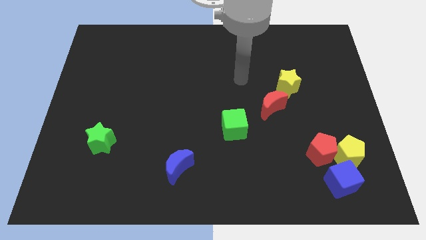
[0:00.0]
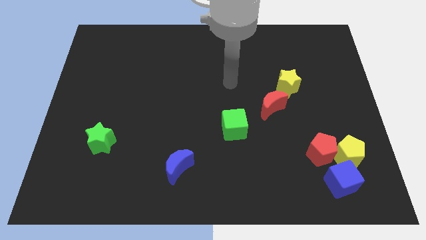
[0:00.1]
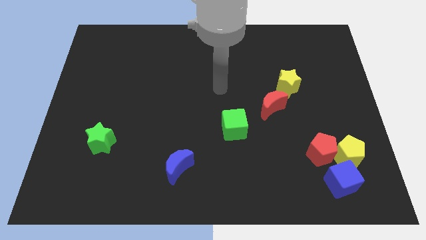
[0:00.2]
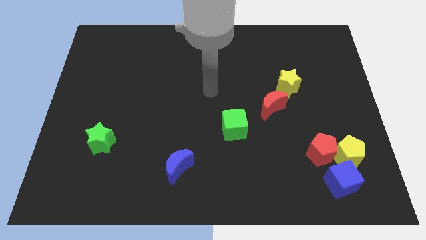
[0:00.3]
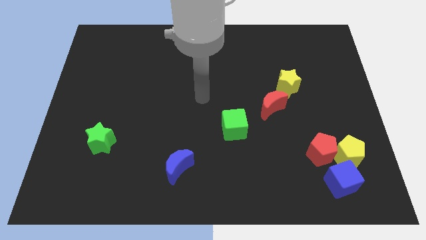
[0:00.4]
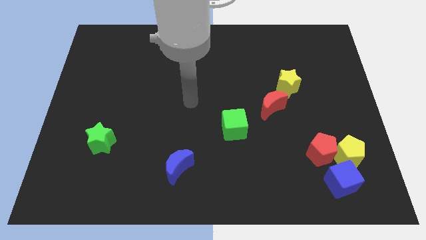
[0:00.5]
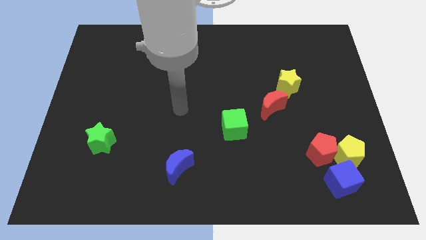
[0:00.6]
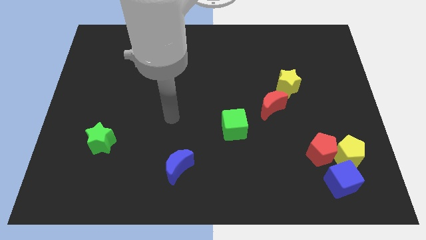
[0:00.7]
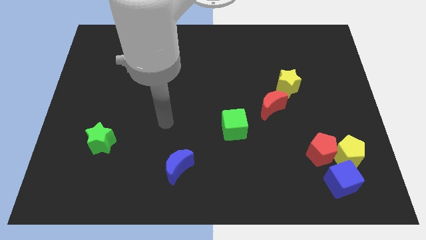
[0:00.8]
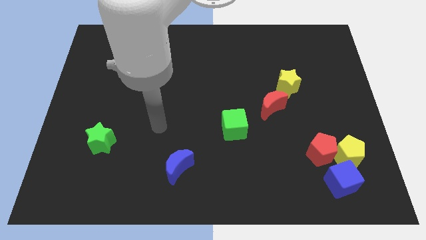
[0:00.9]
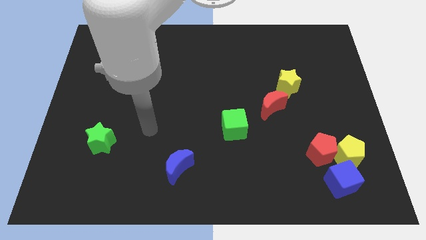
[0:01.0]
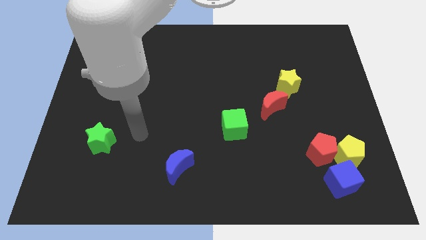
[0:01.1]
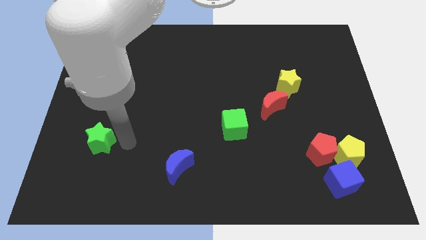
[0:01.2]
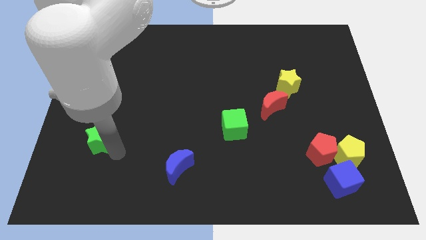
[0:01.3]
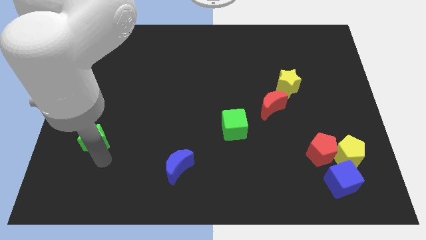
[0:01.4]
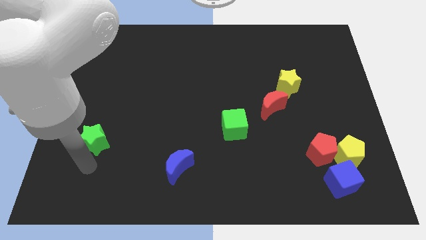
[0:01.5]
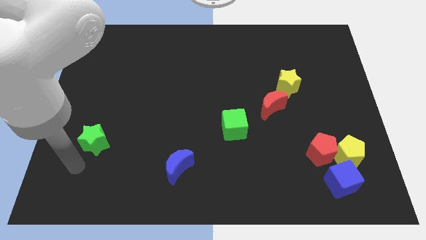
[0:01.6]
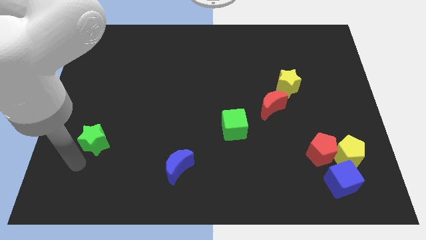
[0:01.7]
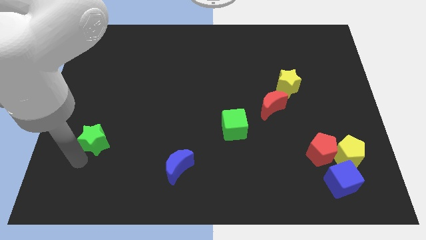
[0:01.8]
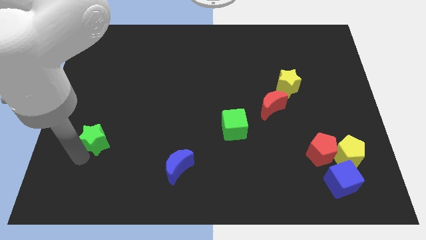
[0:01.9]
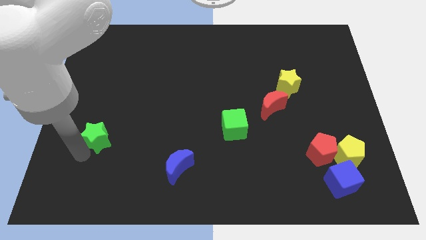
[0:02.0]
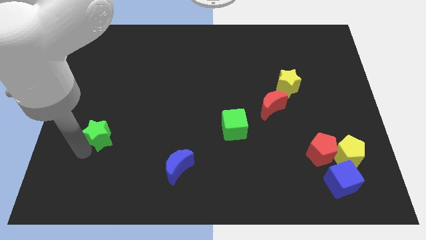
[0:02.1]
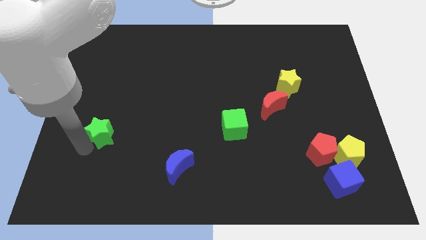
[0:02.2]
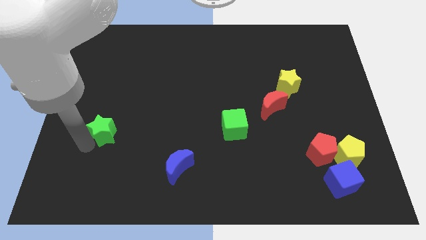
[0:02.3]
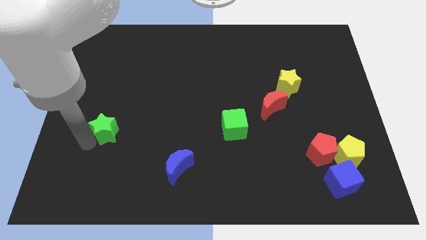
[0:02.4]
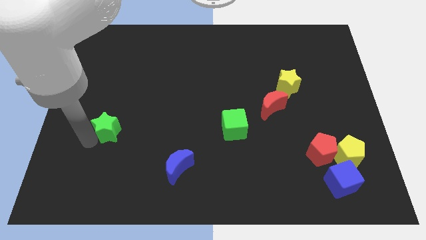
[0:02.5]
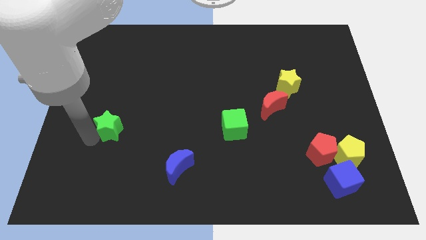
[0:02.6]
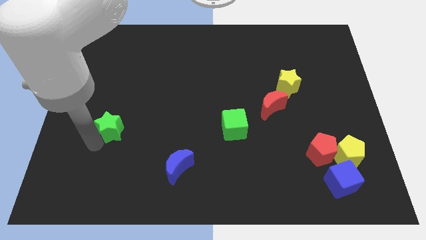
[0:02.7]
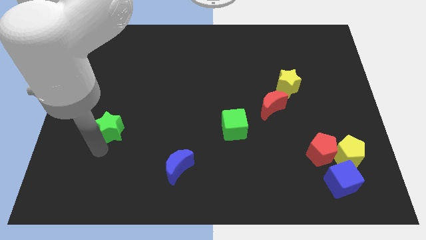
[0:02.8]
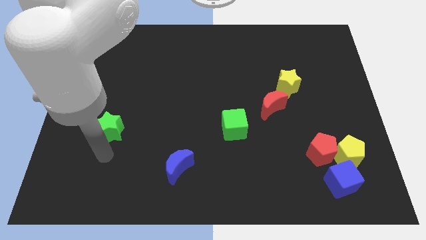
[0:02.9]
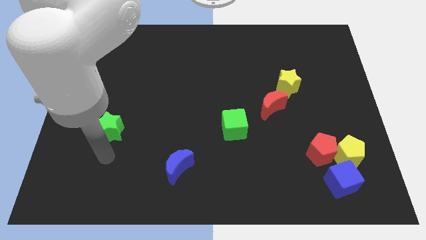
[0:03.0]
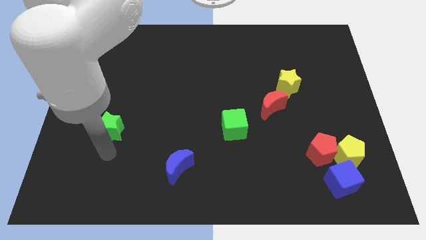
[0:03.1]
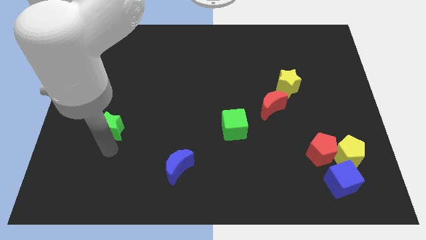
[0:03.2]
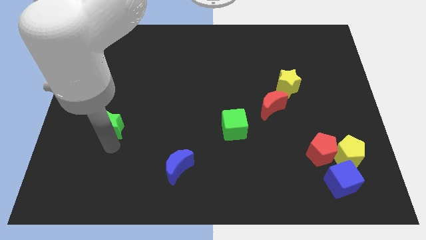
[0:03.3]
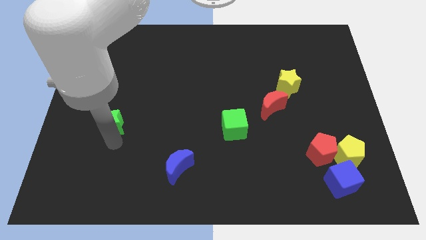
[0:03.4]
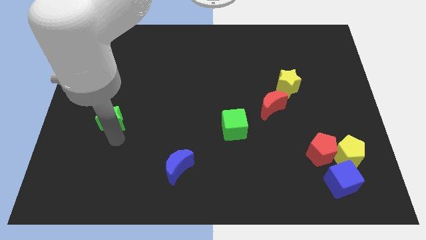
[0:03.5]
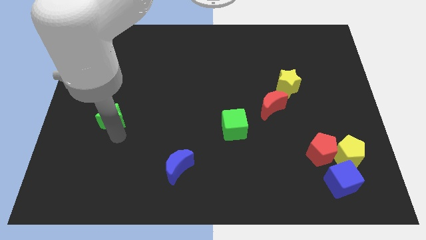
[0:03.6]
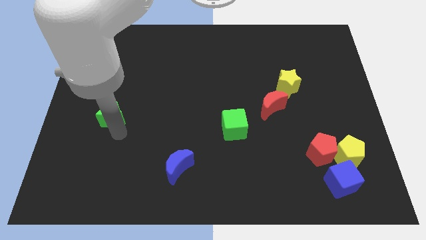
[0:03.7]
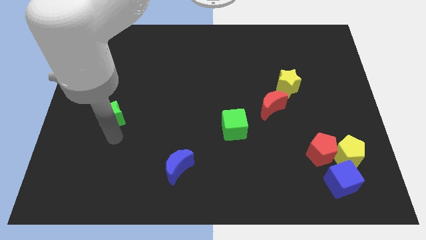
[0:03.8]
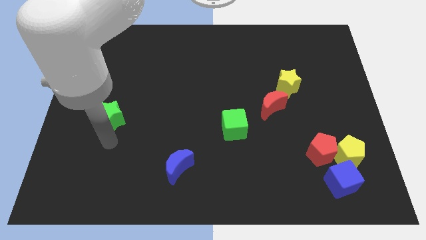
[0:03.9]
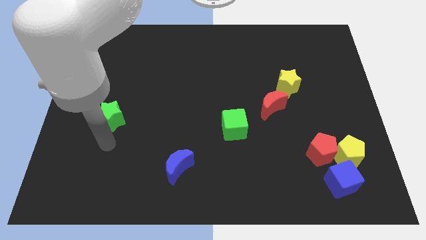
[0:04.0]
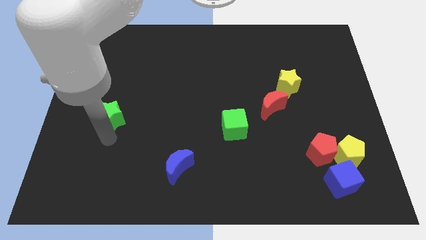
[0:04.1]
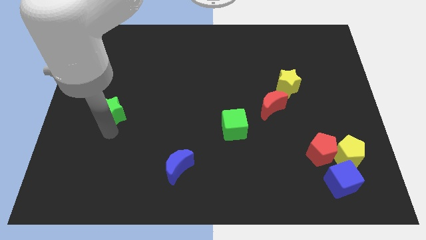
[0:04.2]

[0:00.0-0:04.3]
slide the green star up a little bit

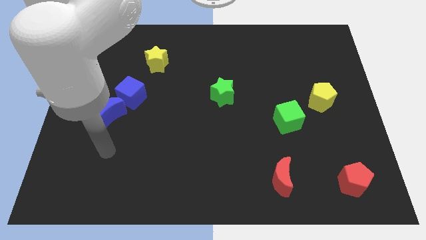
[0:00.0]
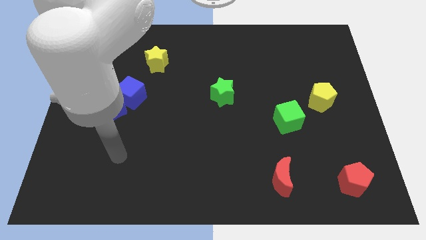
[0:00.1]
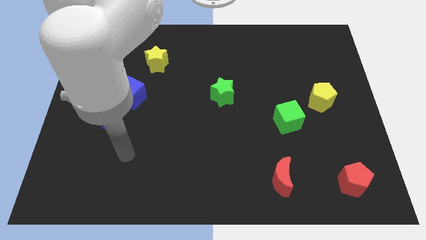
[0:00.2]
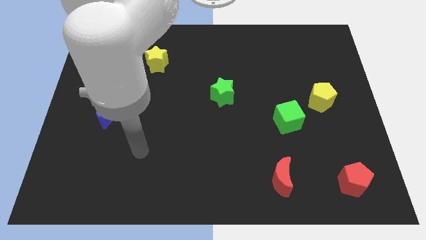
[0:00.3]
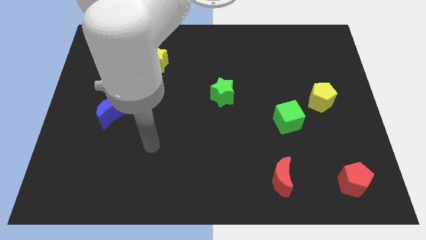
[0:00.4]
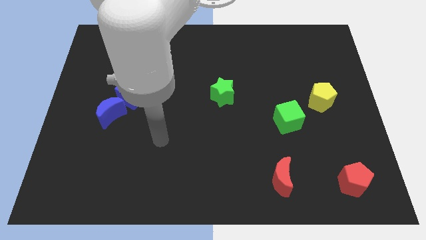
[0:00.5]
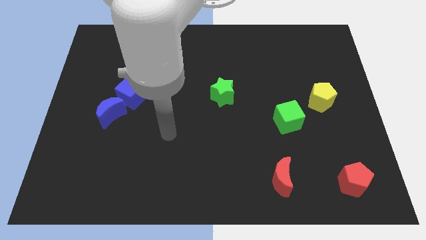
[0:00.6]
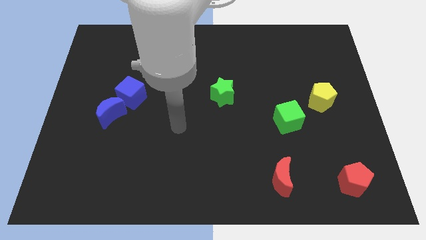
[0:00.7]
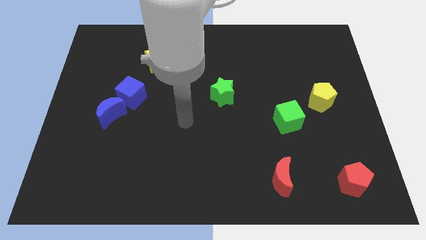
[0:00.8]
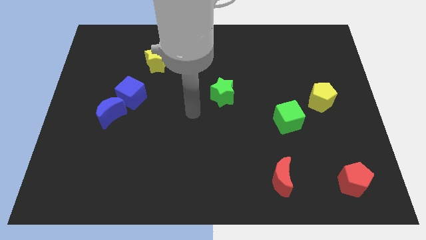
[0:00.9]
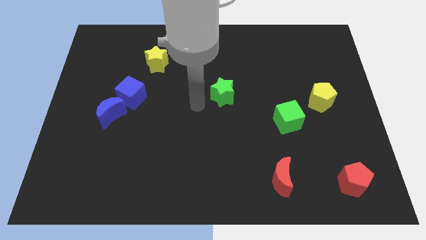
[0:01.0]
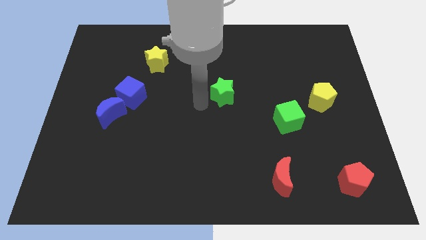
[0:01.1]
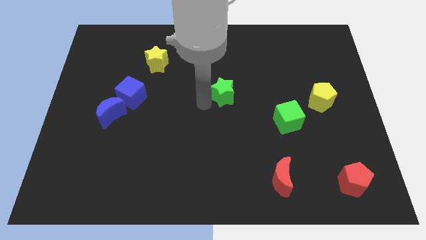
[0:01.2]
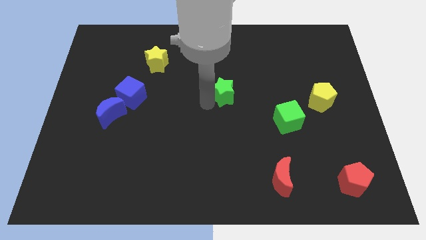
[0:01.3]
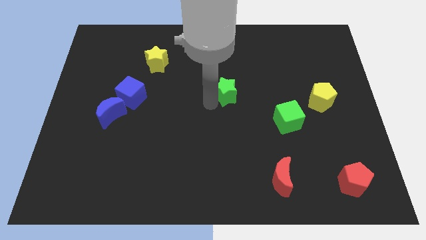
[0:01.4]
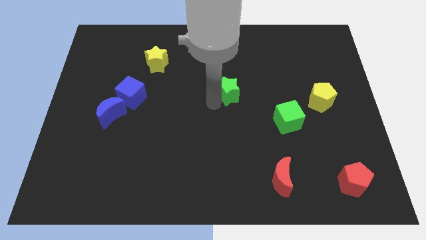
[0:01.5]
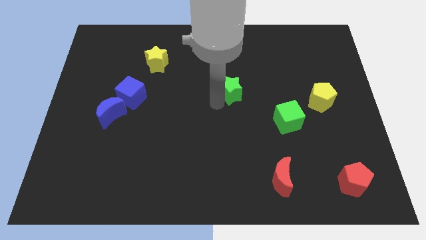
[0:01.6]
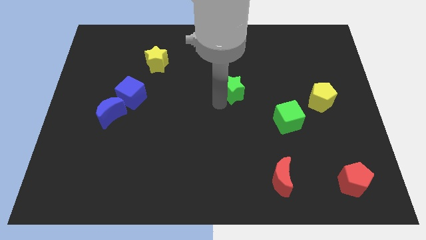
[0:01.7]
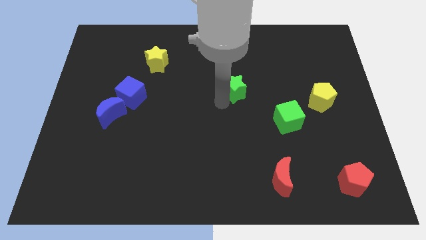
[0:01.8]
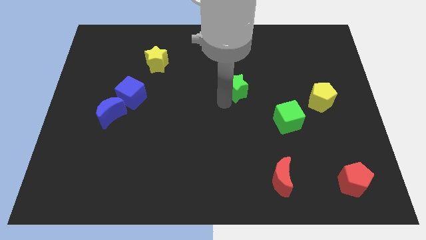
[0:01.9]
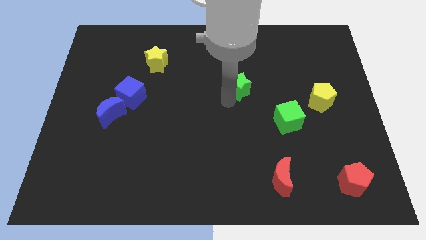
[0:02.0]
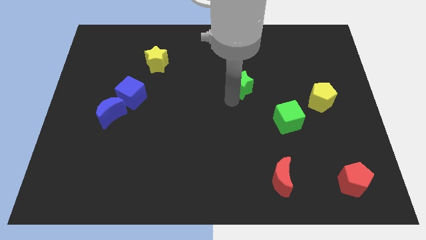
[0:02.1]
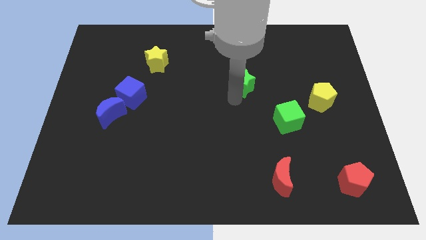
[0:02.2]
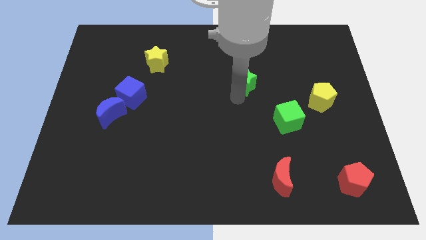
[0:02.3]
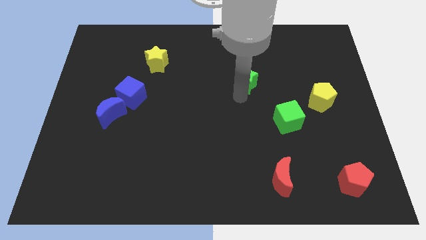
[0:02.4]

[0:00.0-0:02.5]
move the green star a little bit diagonally upwards and to the right

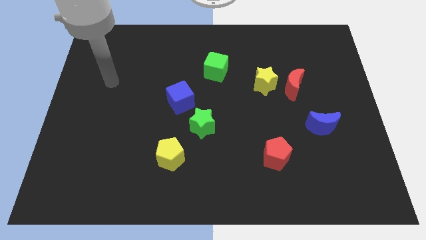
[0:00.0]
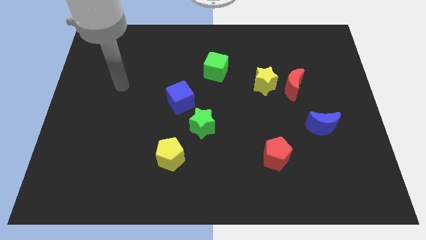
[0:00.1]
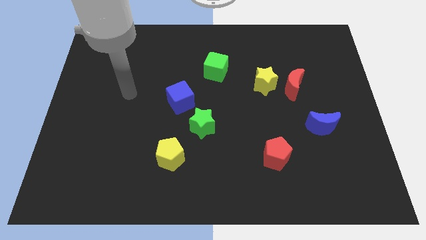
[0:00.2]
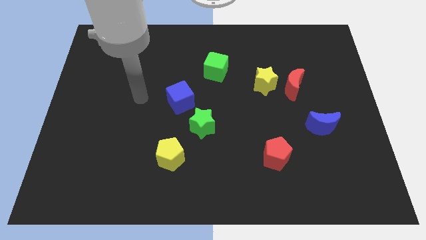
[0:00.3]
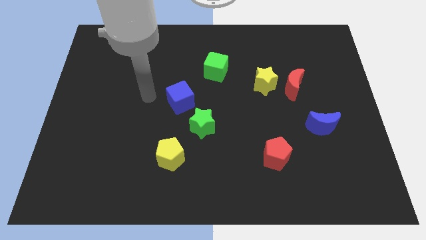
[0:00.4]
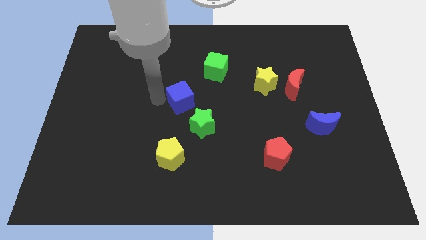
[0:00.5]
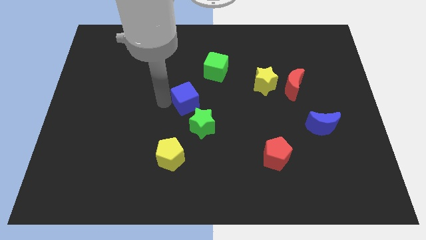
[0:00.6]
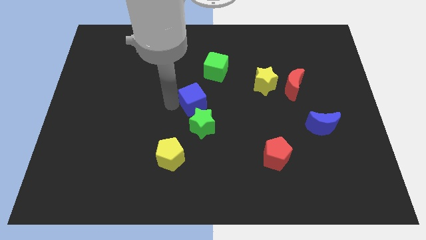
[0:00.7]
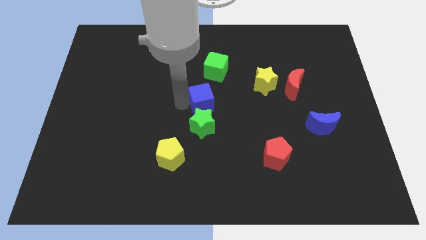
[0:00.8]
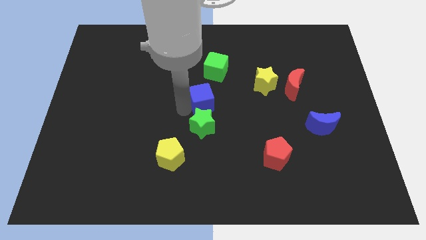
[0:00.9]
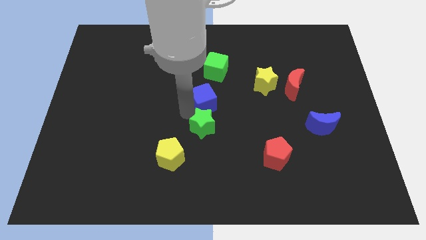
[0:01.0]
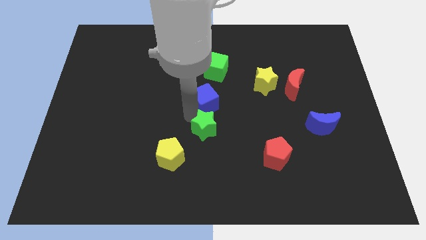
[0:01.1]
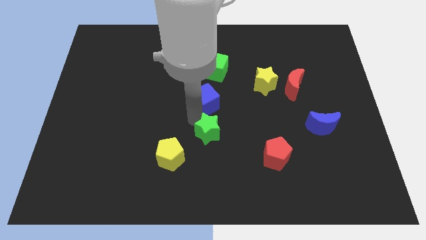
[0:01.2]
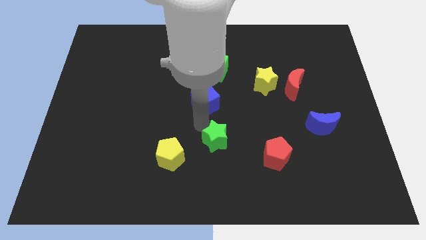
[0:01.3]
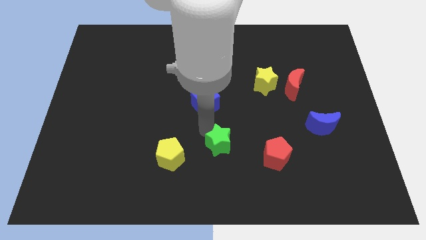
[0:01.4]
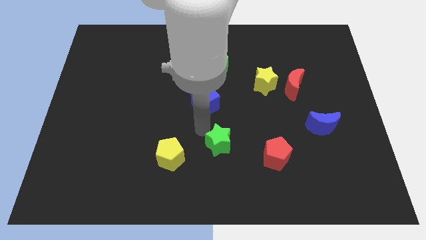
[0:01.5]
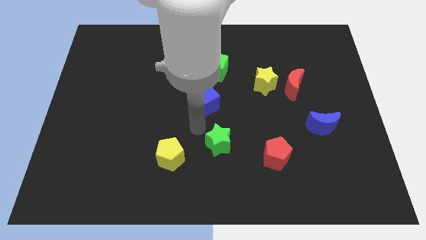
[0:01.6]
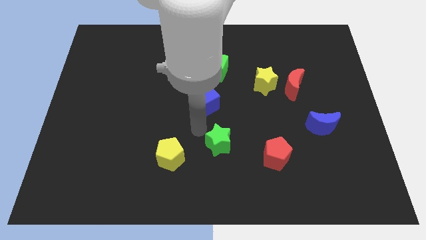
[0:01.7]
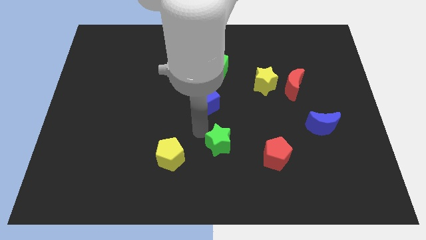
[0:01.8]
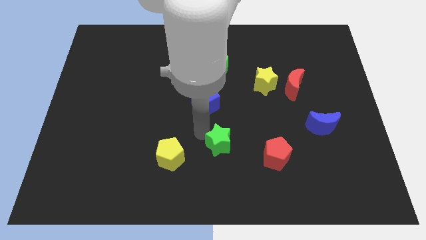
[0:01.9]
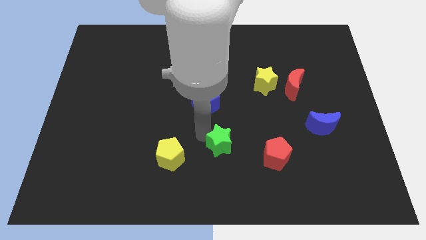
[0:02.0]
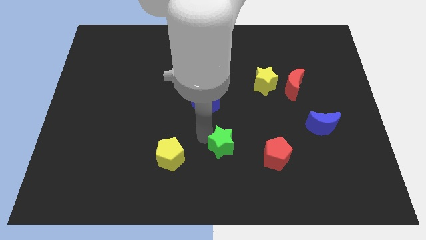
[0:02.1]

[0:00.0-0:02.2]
slide the green star down and then right a little
